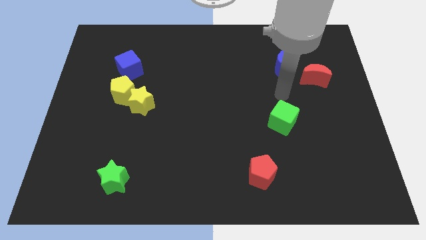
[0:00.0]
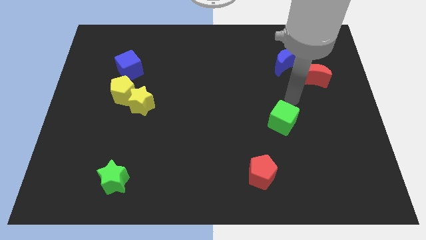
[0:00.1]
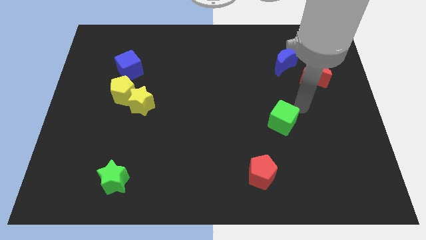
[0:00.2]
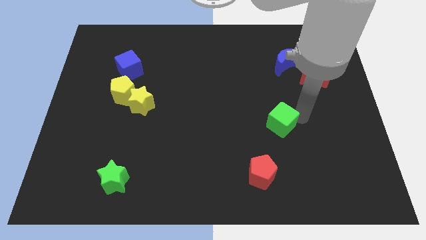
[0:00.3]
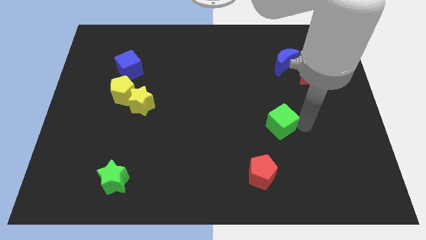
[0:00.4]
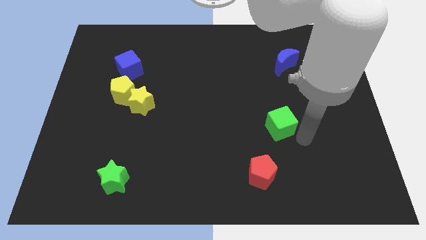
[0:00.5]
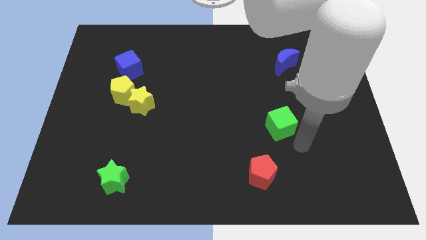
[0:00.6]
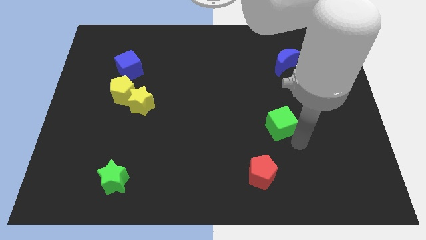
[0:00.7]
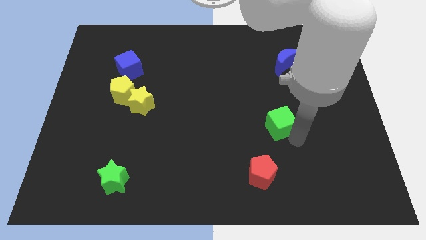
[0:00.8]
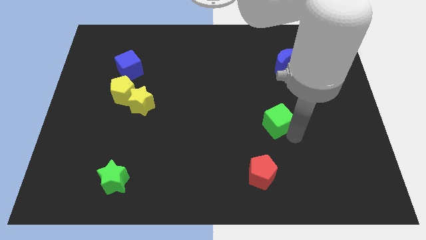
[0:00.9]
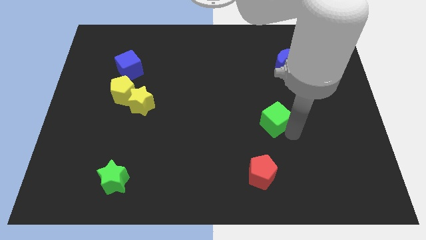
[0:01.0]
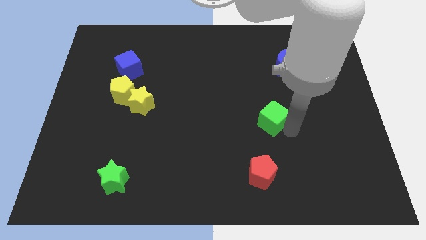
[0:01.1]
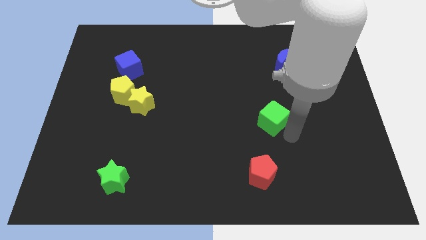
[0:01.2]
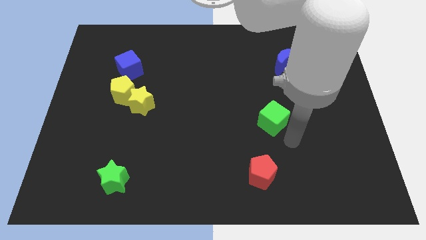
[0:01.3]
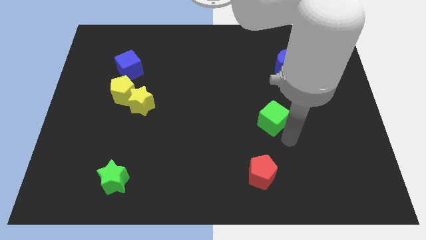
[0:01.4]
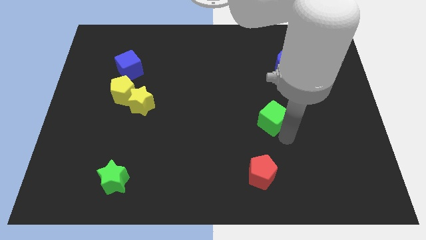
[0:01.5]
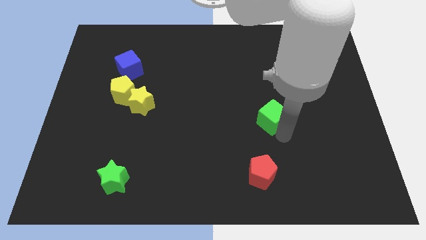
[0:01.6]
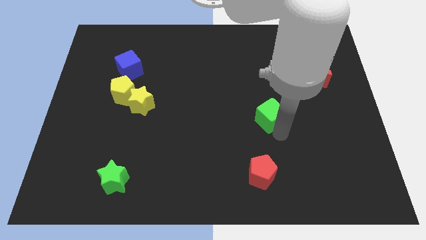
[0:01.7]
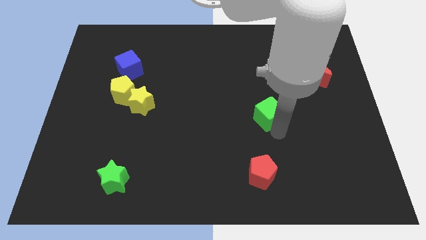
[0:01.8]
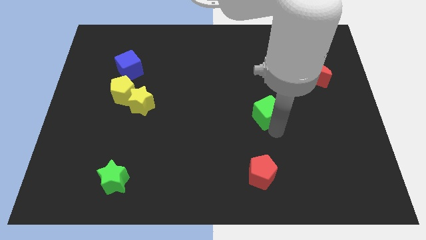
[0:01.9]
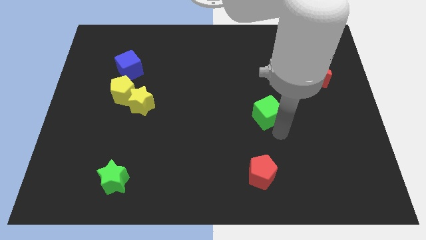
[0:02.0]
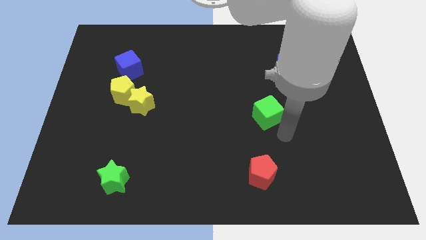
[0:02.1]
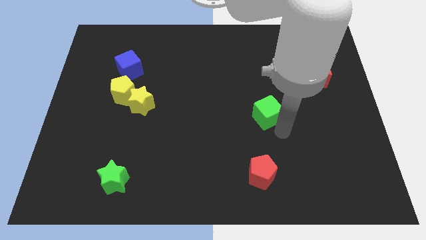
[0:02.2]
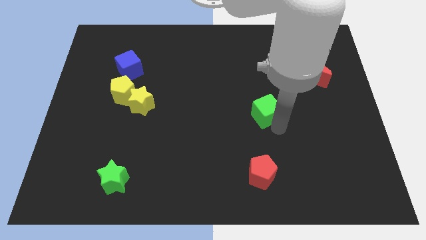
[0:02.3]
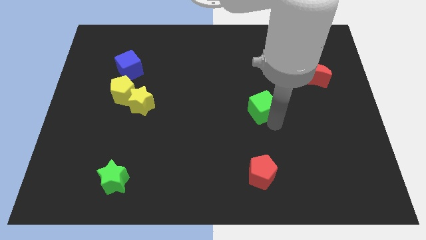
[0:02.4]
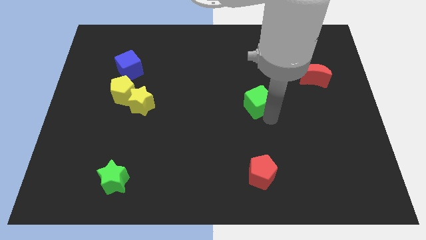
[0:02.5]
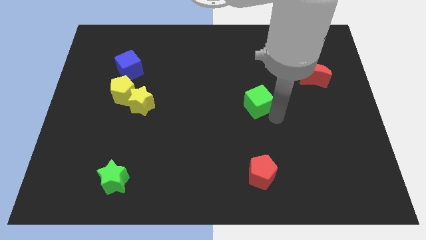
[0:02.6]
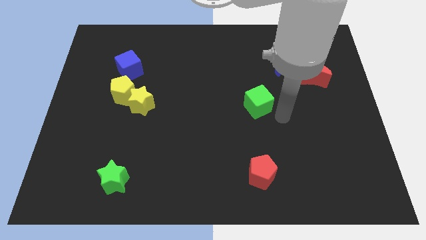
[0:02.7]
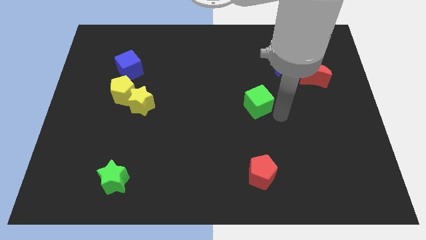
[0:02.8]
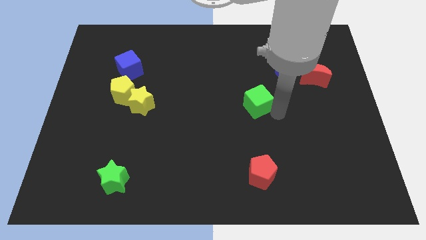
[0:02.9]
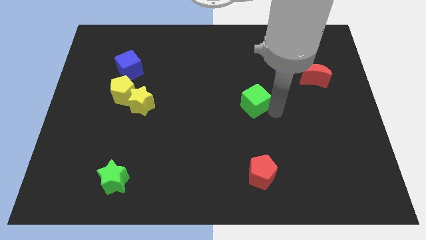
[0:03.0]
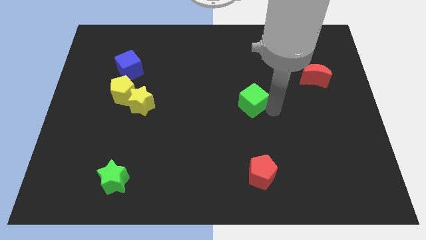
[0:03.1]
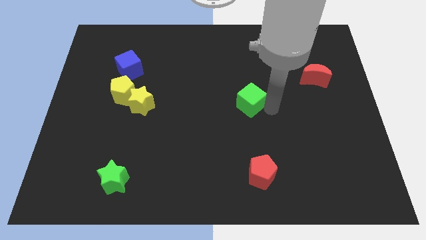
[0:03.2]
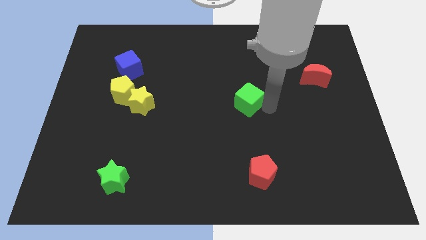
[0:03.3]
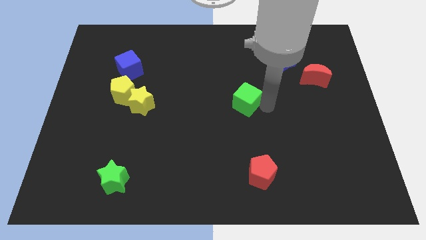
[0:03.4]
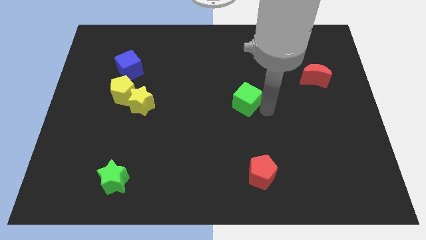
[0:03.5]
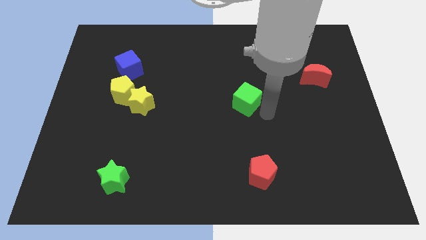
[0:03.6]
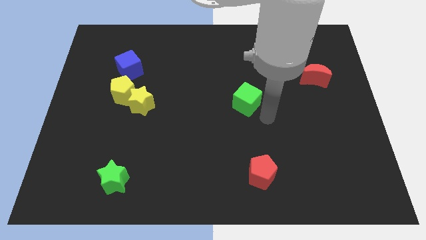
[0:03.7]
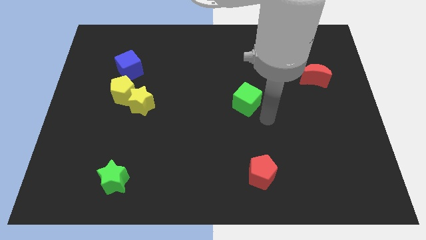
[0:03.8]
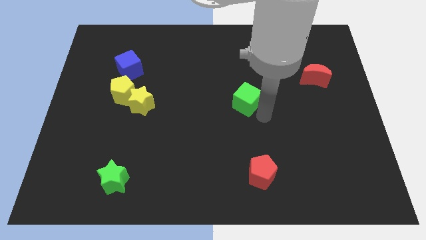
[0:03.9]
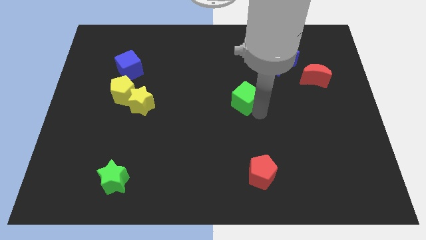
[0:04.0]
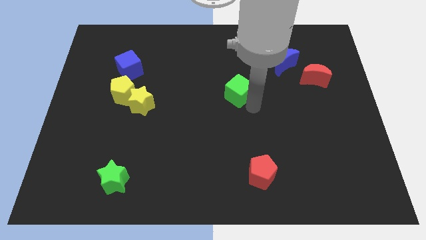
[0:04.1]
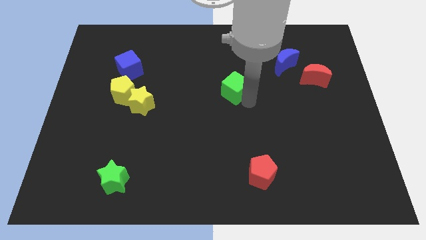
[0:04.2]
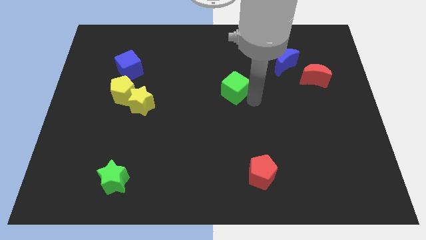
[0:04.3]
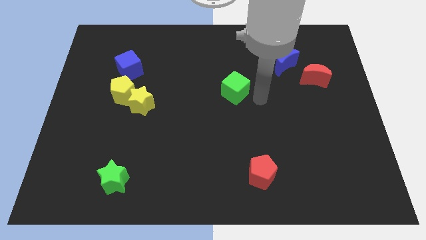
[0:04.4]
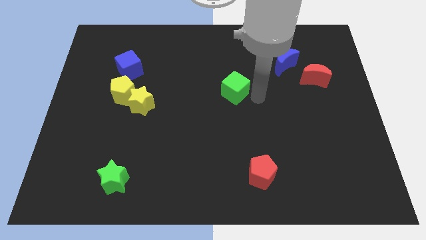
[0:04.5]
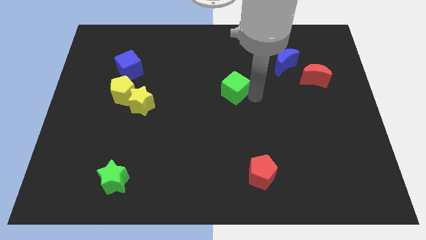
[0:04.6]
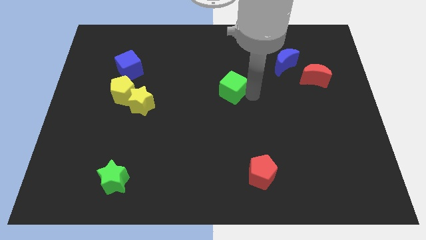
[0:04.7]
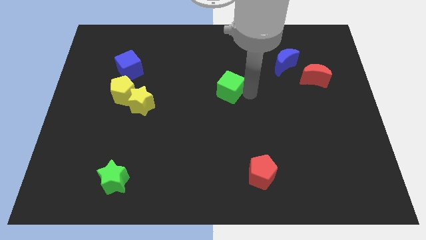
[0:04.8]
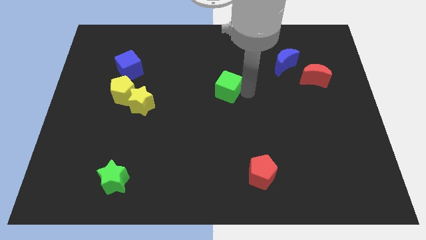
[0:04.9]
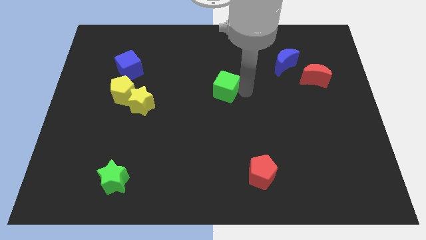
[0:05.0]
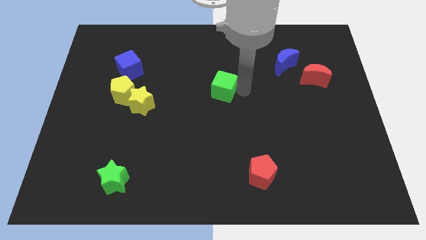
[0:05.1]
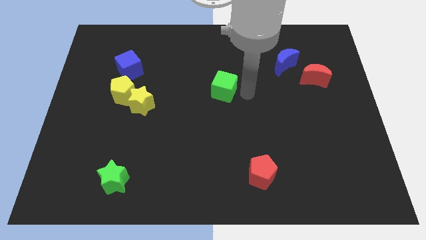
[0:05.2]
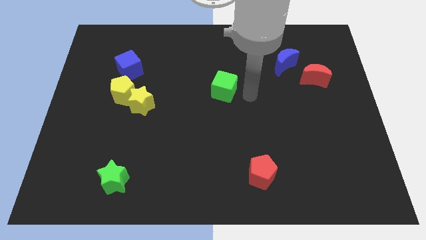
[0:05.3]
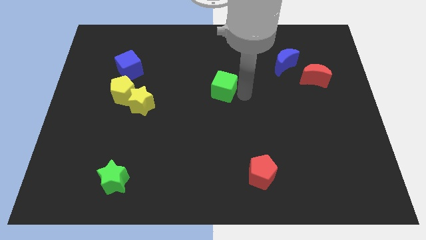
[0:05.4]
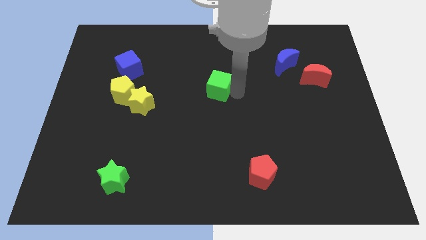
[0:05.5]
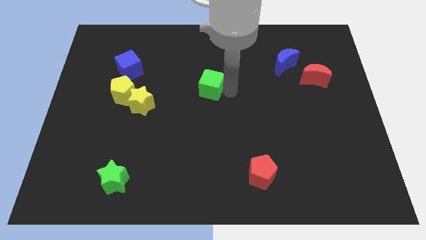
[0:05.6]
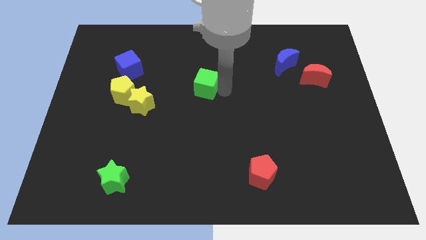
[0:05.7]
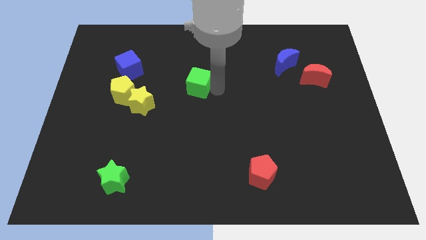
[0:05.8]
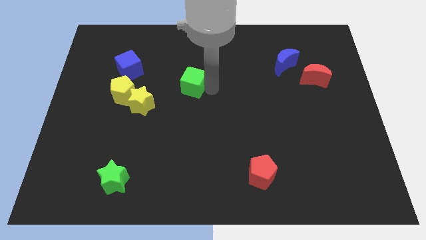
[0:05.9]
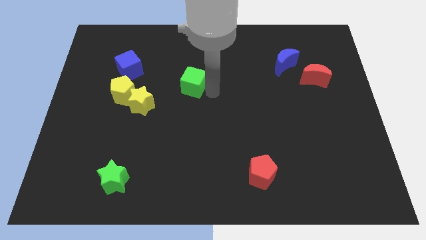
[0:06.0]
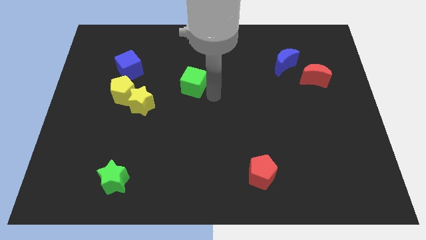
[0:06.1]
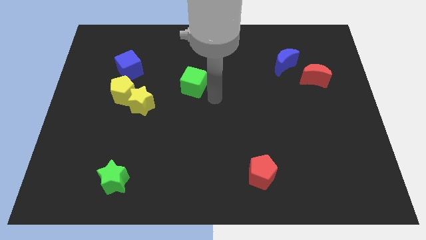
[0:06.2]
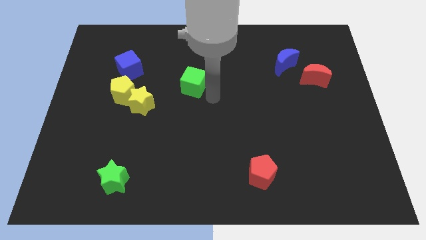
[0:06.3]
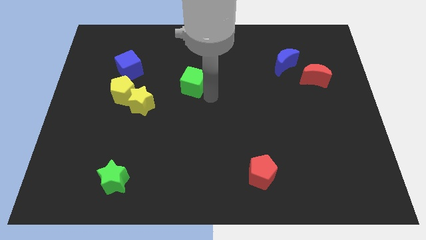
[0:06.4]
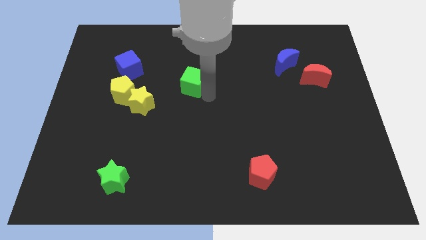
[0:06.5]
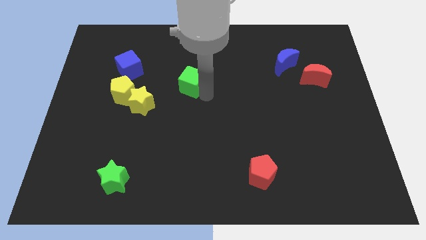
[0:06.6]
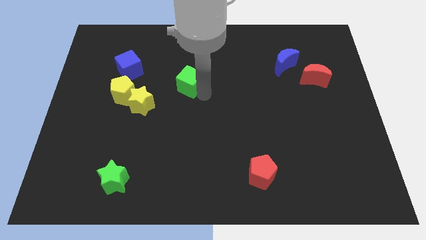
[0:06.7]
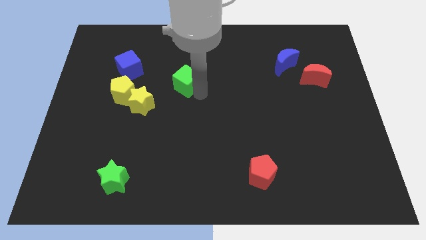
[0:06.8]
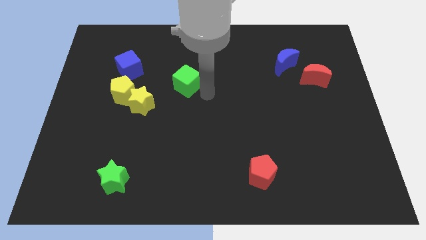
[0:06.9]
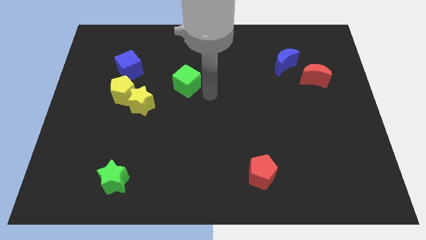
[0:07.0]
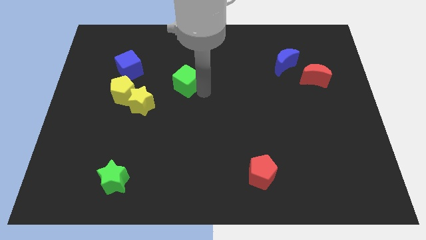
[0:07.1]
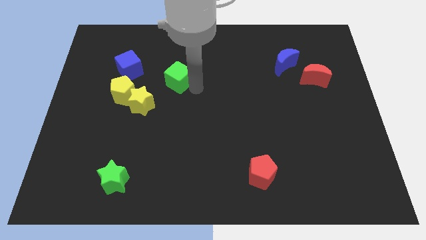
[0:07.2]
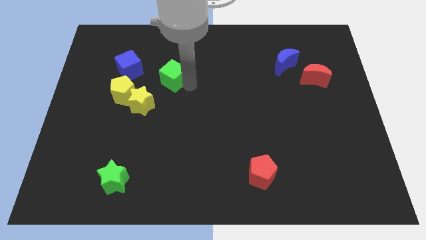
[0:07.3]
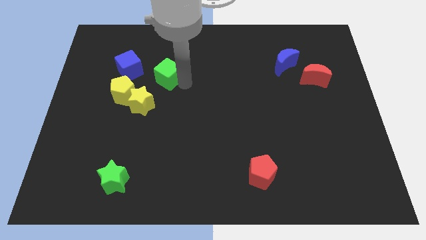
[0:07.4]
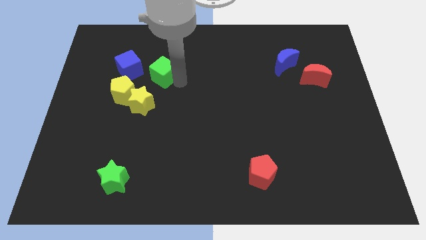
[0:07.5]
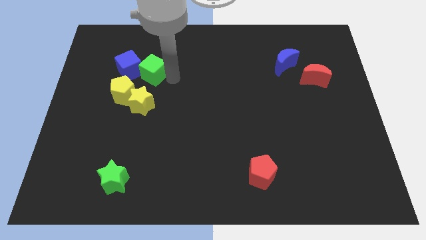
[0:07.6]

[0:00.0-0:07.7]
move the green cube to the blue cube
